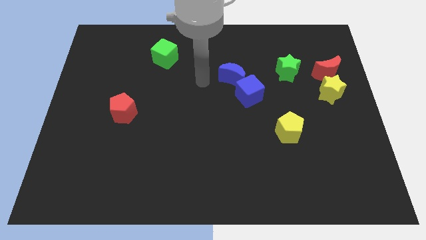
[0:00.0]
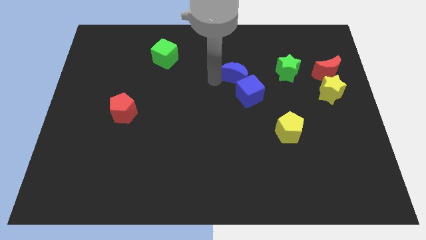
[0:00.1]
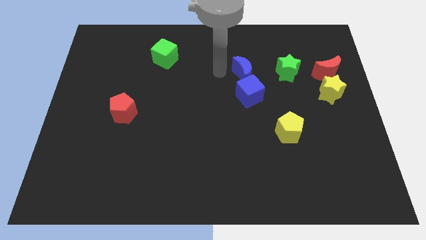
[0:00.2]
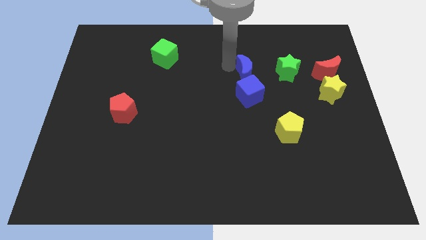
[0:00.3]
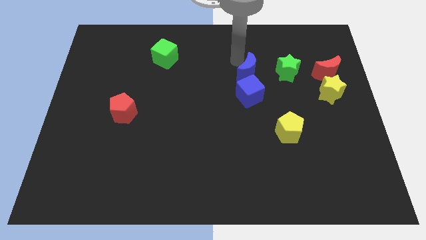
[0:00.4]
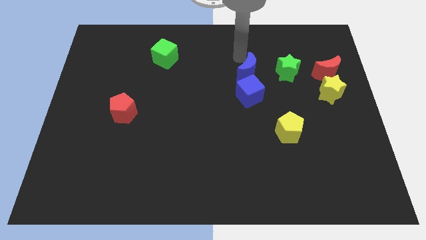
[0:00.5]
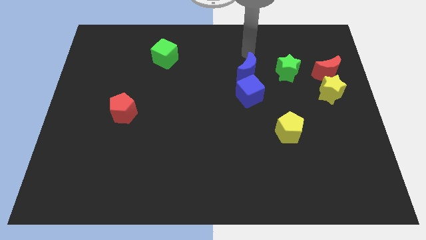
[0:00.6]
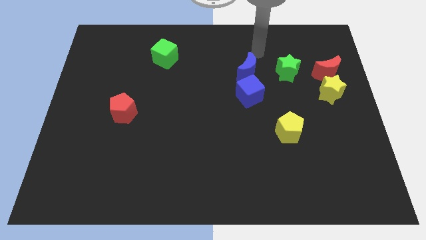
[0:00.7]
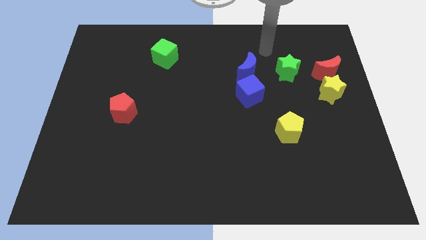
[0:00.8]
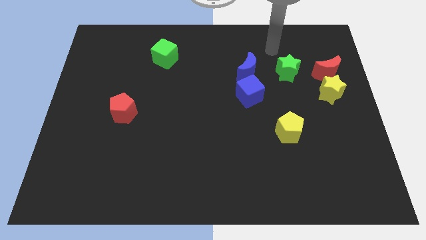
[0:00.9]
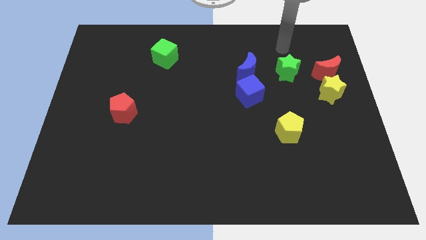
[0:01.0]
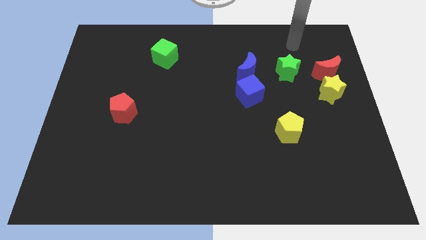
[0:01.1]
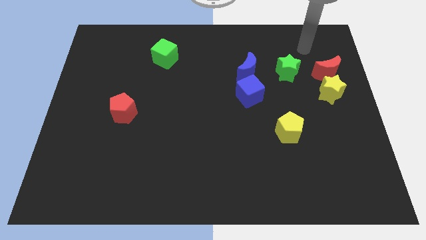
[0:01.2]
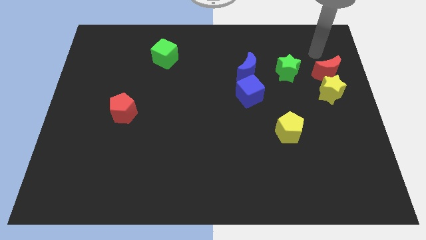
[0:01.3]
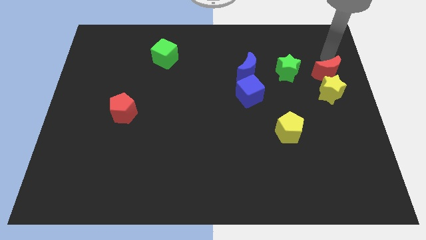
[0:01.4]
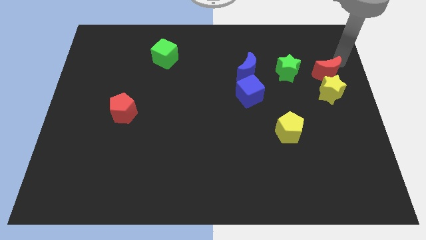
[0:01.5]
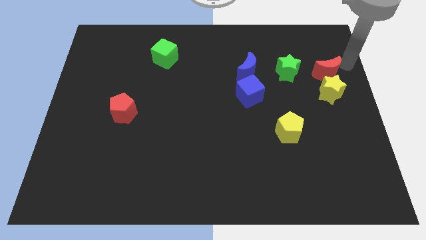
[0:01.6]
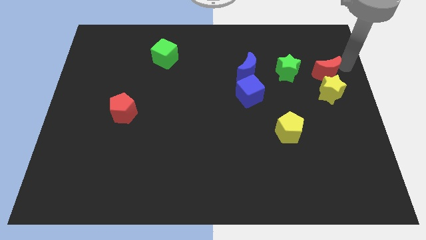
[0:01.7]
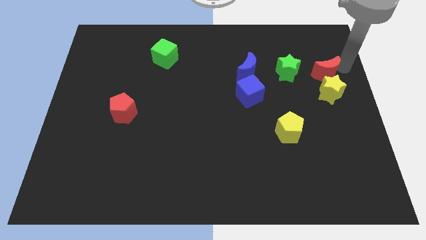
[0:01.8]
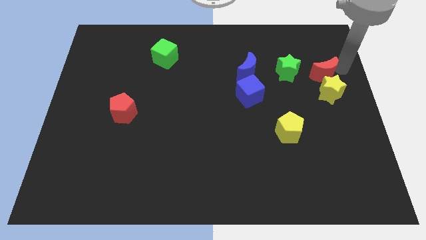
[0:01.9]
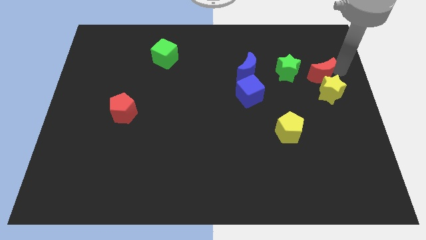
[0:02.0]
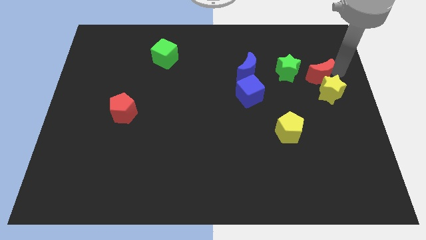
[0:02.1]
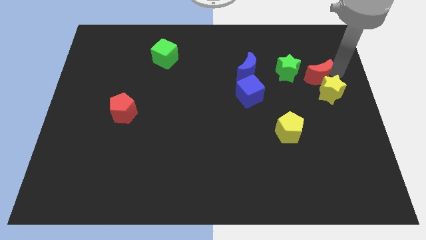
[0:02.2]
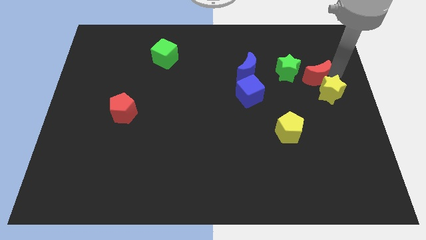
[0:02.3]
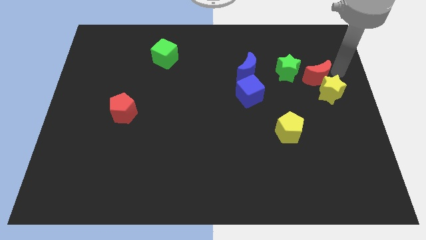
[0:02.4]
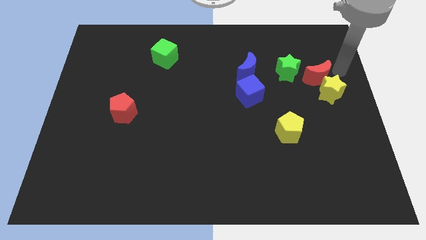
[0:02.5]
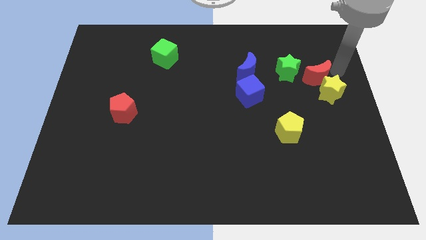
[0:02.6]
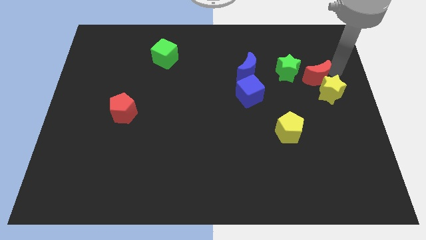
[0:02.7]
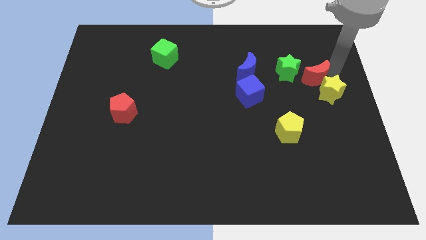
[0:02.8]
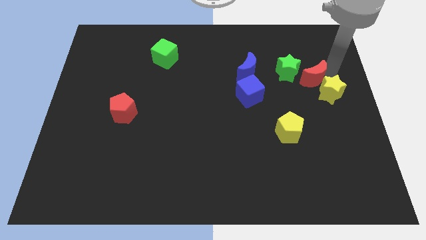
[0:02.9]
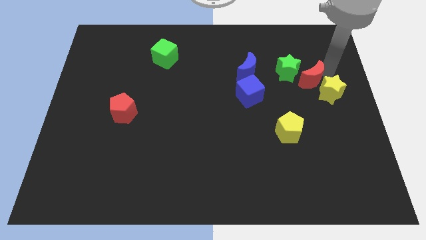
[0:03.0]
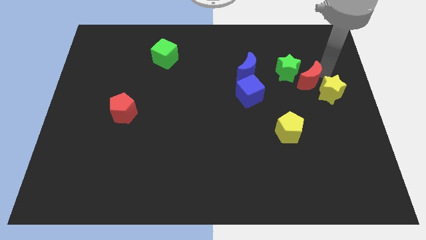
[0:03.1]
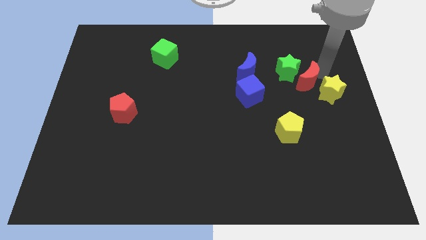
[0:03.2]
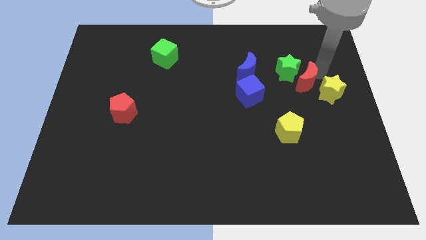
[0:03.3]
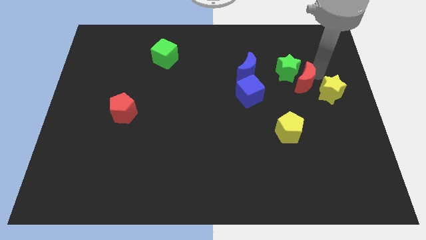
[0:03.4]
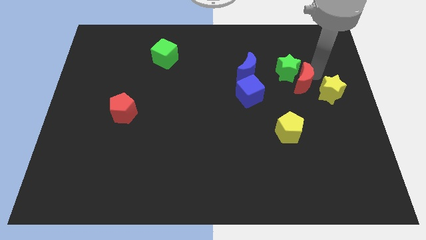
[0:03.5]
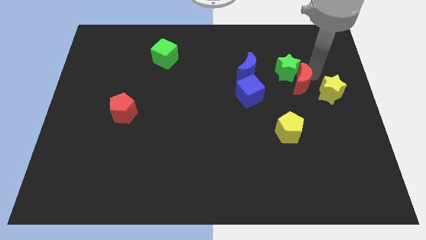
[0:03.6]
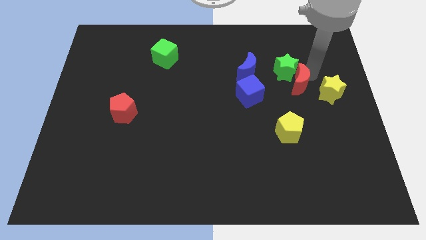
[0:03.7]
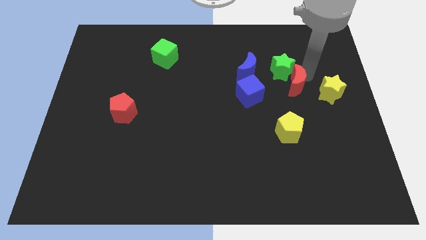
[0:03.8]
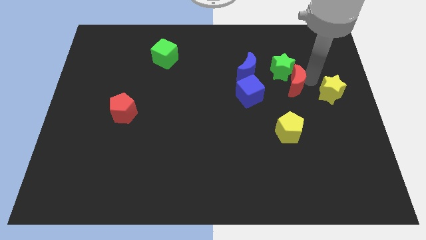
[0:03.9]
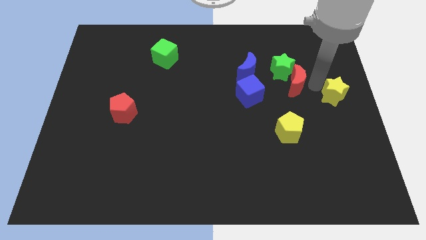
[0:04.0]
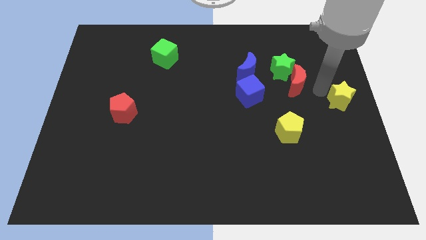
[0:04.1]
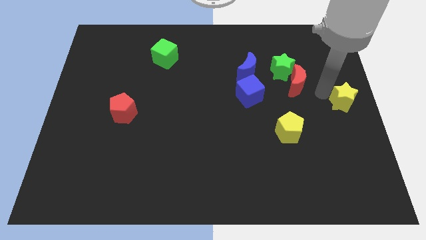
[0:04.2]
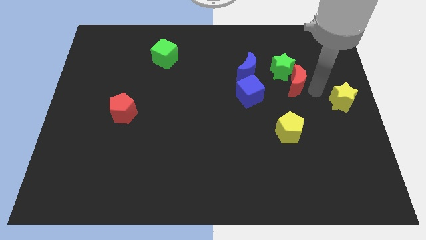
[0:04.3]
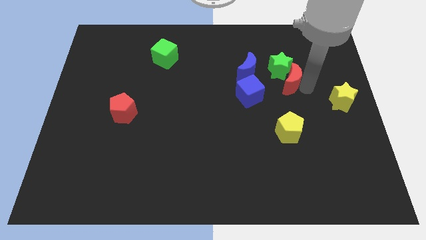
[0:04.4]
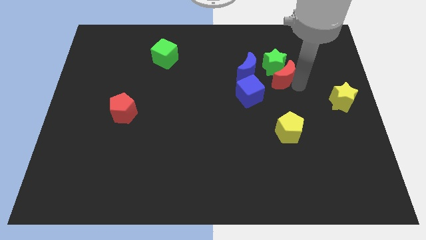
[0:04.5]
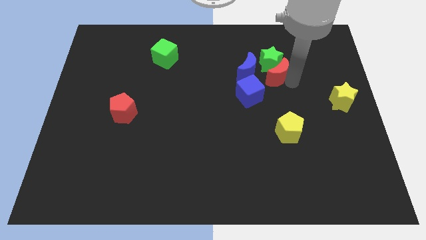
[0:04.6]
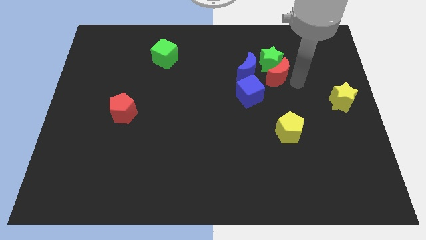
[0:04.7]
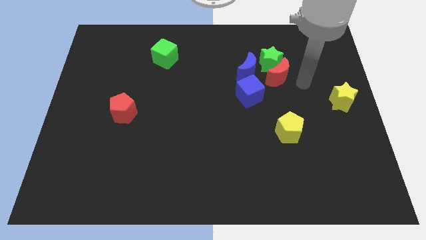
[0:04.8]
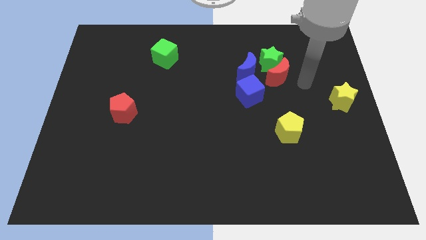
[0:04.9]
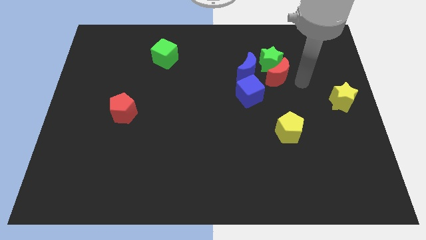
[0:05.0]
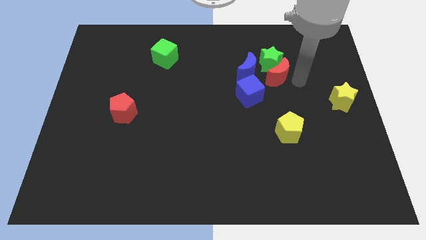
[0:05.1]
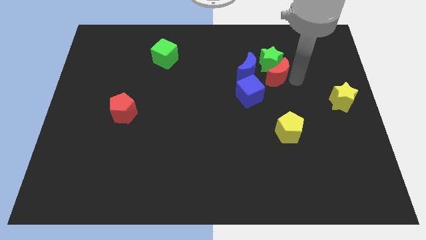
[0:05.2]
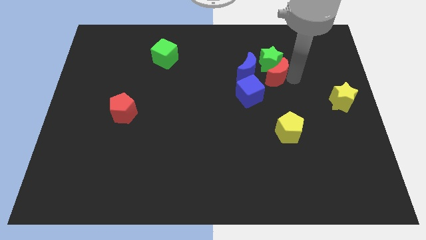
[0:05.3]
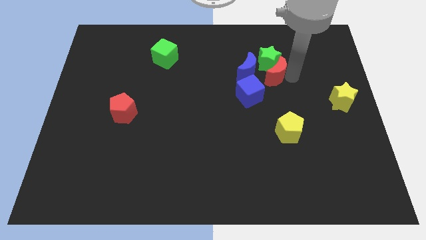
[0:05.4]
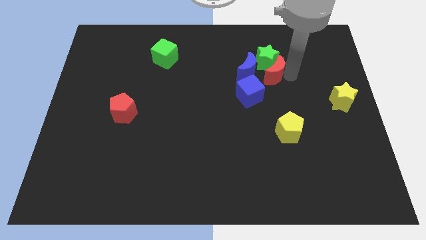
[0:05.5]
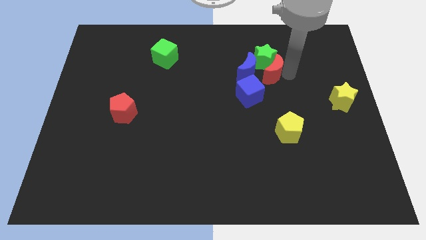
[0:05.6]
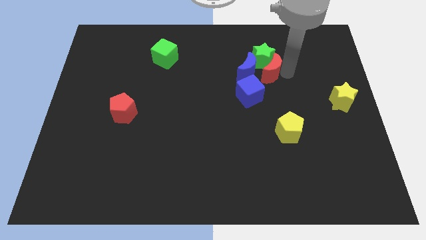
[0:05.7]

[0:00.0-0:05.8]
slide the red moon towards the blue moon

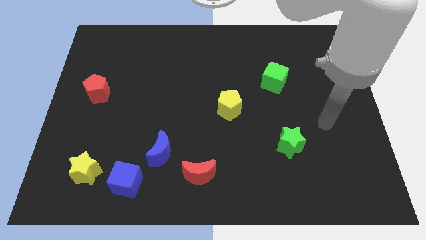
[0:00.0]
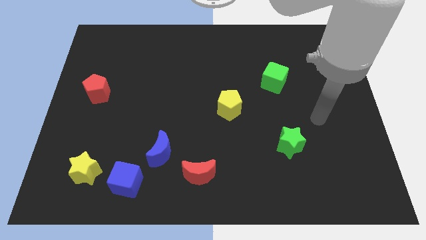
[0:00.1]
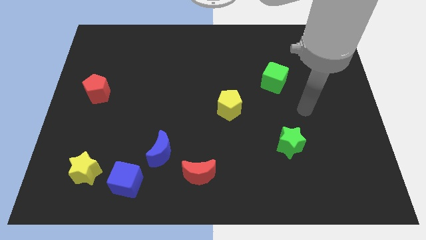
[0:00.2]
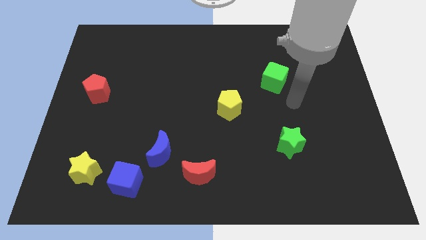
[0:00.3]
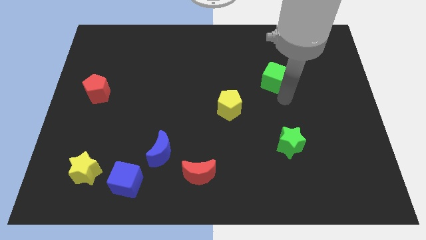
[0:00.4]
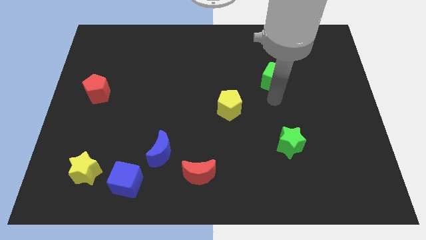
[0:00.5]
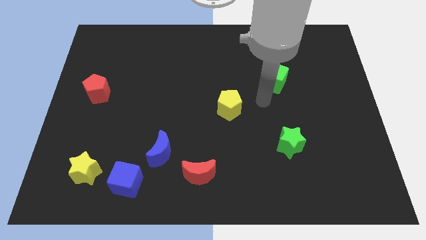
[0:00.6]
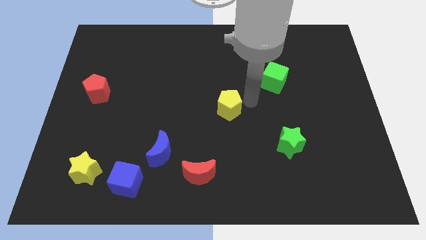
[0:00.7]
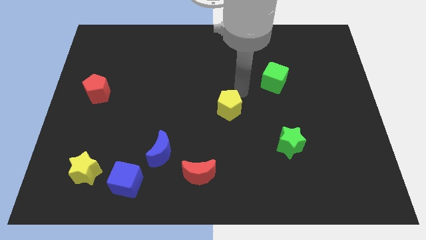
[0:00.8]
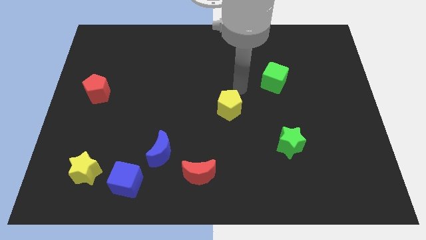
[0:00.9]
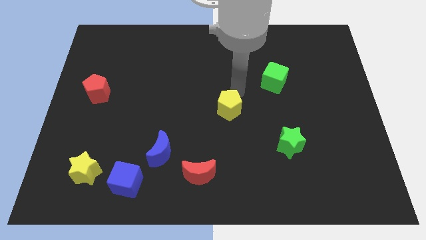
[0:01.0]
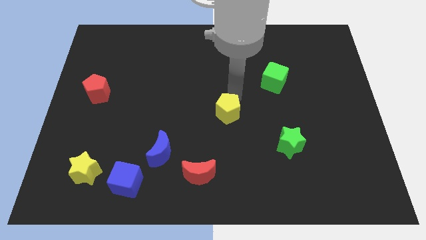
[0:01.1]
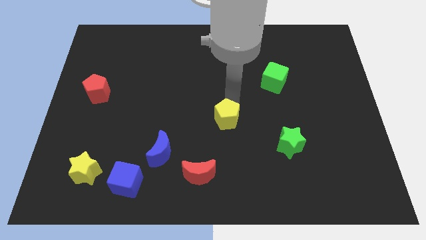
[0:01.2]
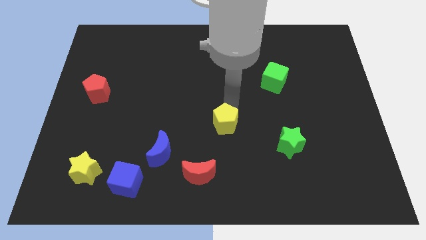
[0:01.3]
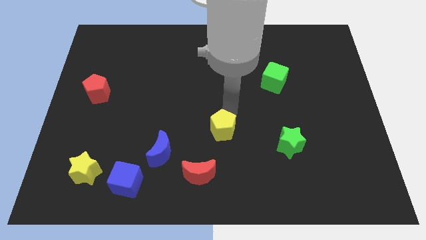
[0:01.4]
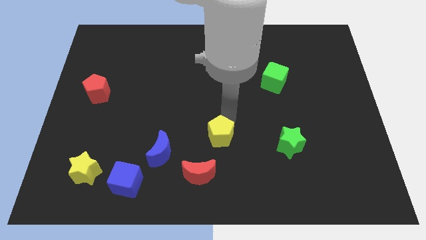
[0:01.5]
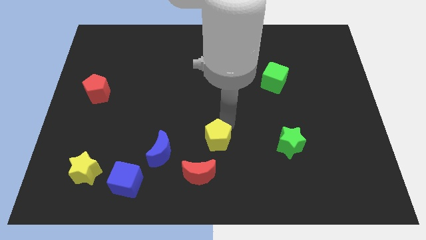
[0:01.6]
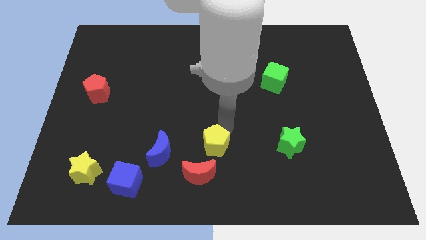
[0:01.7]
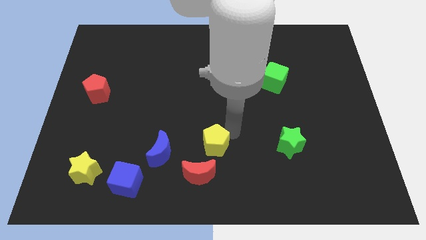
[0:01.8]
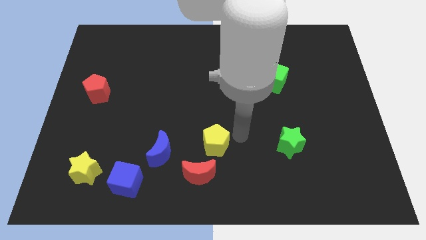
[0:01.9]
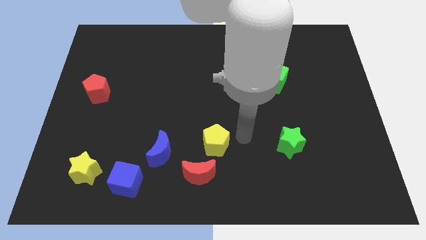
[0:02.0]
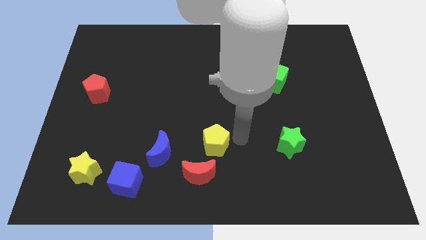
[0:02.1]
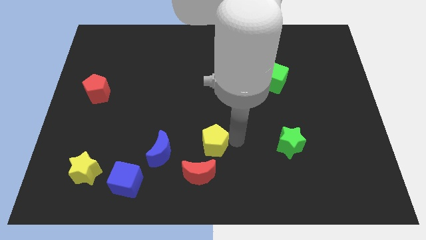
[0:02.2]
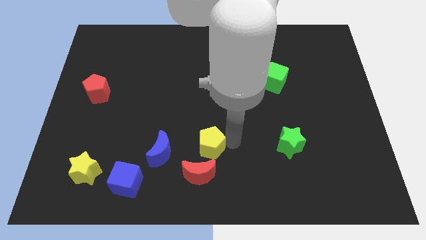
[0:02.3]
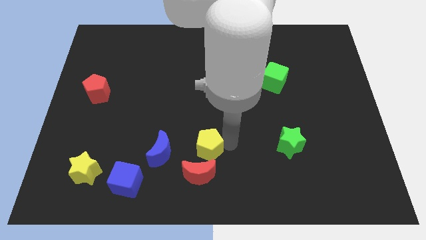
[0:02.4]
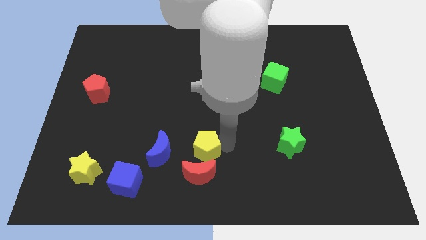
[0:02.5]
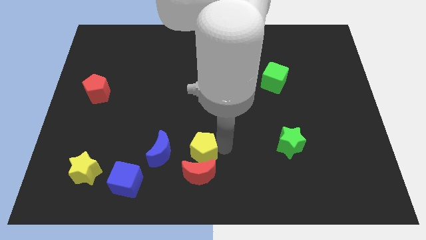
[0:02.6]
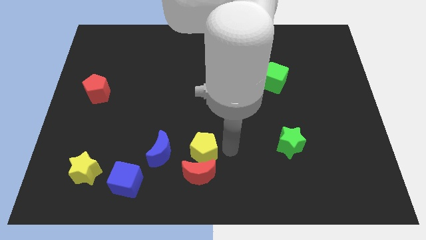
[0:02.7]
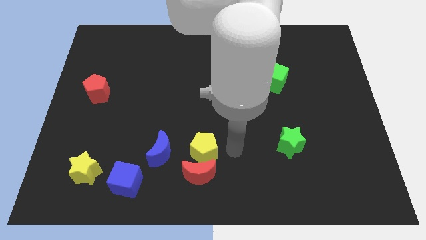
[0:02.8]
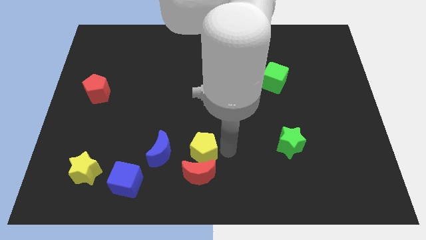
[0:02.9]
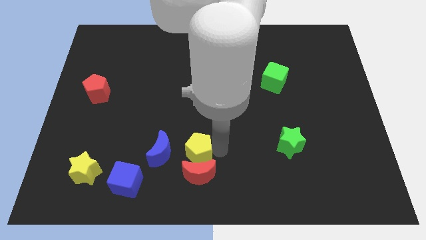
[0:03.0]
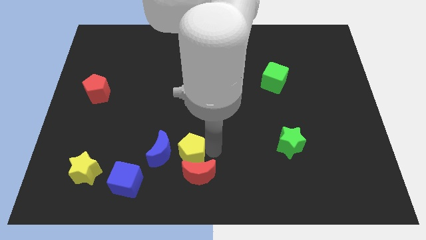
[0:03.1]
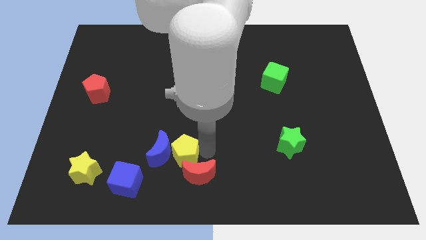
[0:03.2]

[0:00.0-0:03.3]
put the yellow pentagon next to the blue moon
